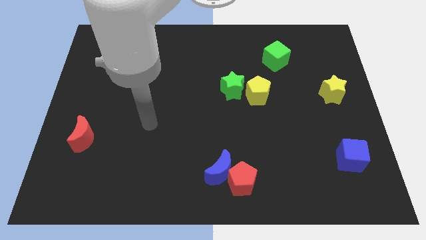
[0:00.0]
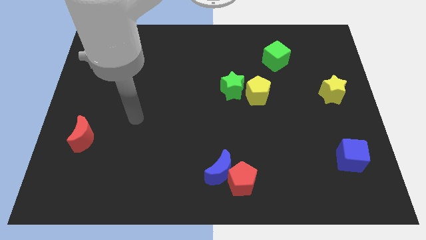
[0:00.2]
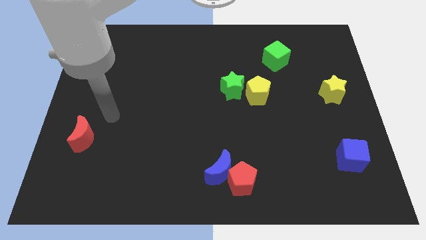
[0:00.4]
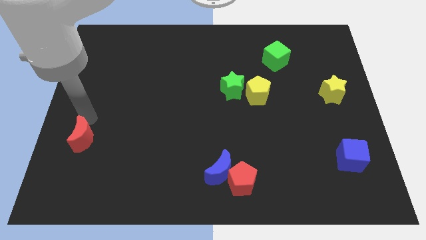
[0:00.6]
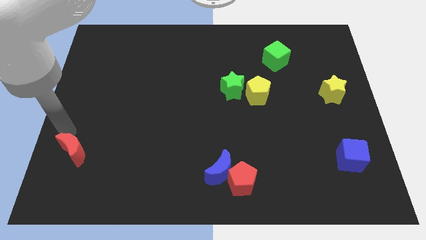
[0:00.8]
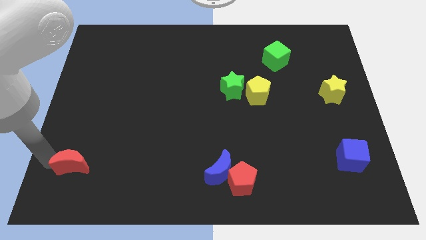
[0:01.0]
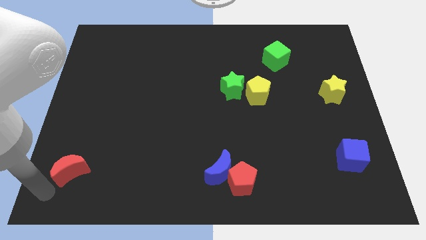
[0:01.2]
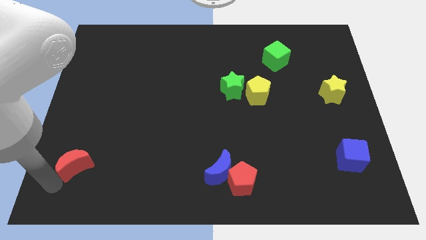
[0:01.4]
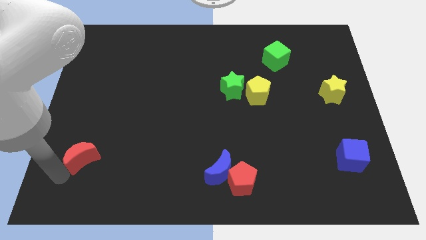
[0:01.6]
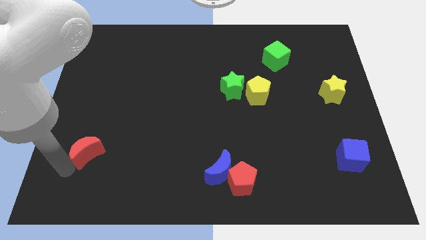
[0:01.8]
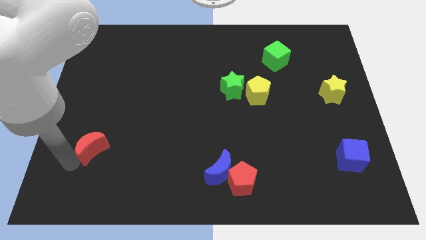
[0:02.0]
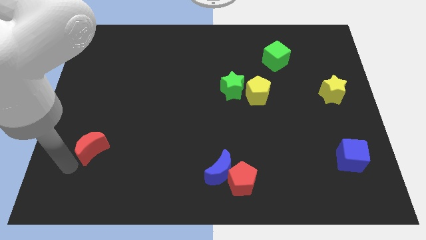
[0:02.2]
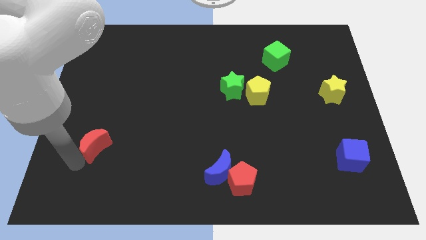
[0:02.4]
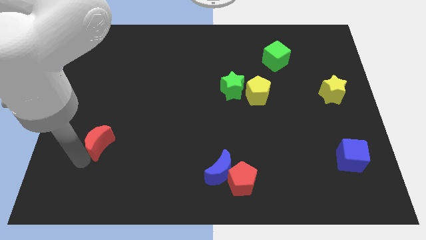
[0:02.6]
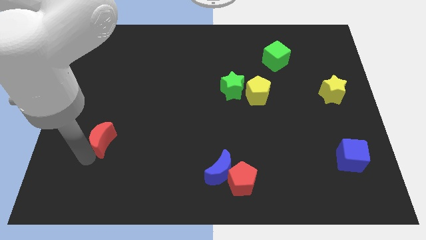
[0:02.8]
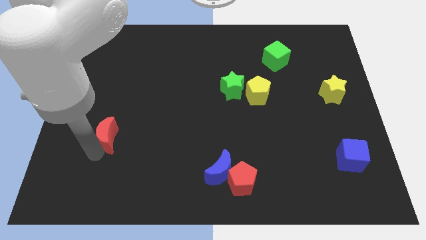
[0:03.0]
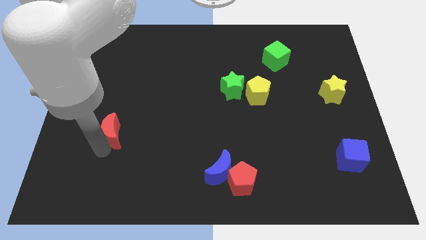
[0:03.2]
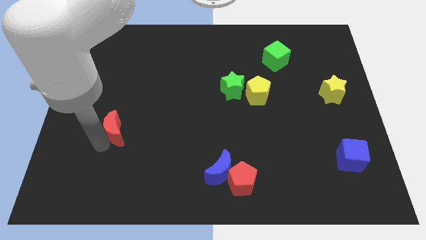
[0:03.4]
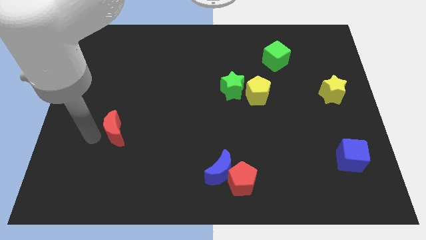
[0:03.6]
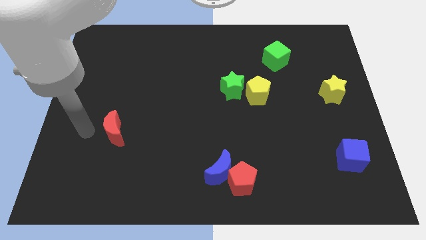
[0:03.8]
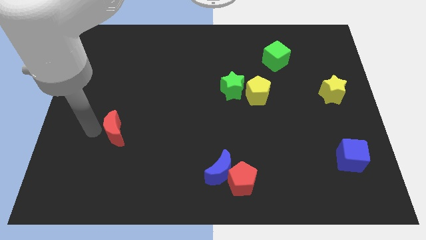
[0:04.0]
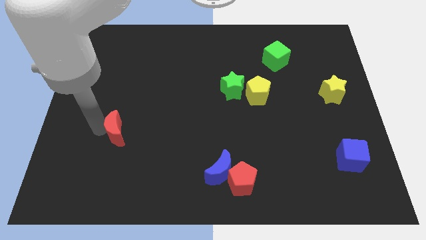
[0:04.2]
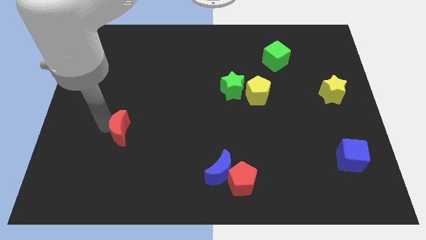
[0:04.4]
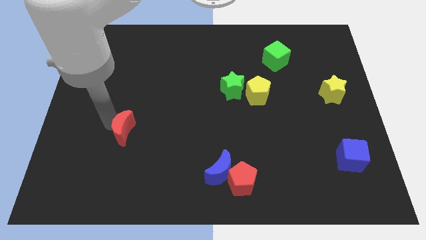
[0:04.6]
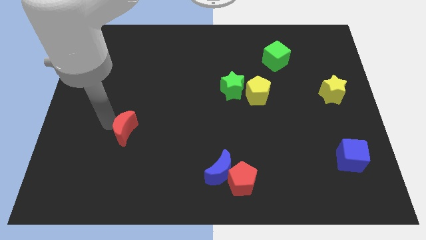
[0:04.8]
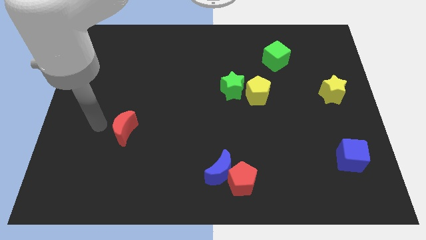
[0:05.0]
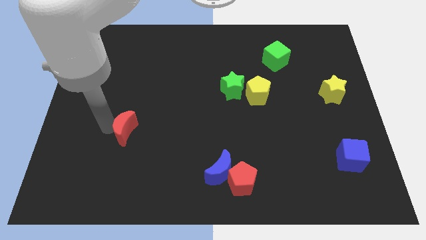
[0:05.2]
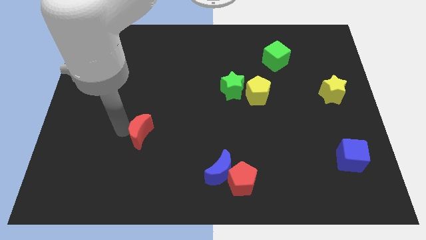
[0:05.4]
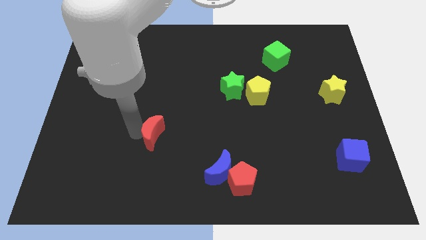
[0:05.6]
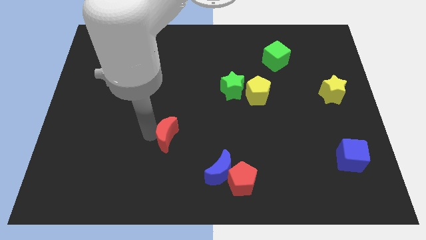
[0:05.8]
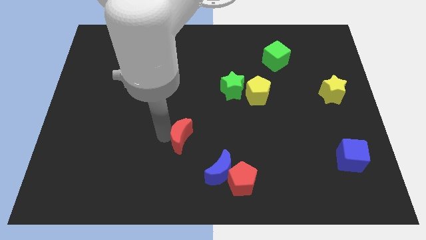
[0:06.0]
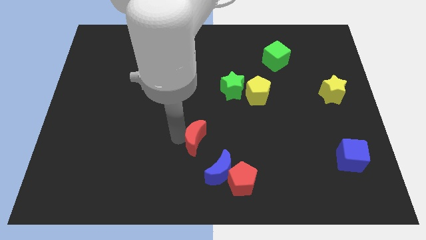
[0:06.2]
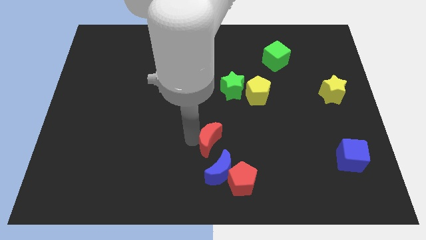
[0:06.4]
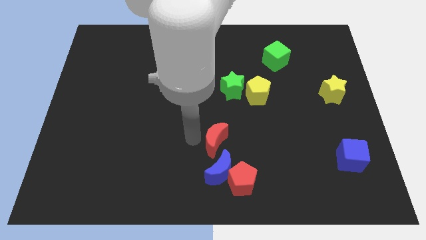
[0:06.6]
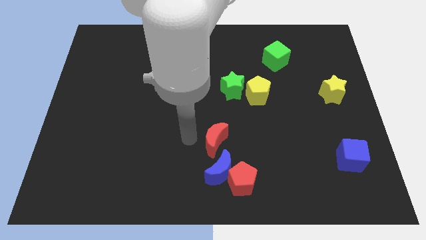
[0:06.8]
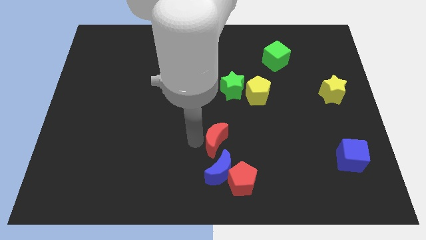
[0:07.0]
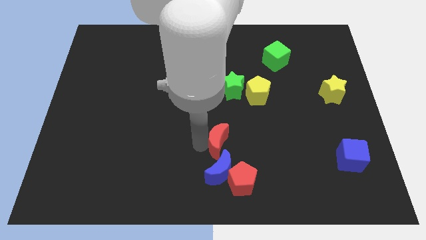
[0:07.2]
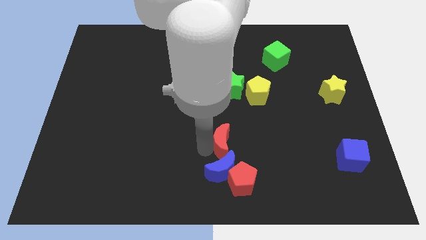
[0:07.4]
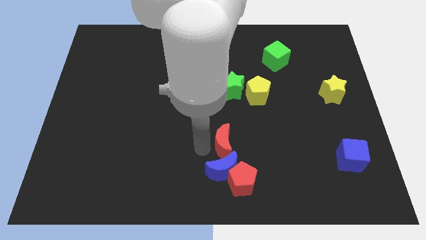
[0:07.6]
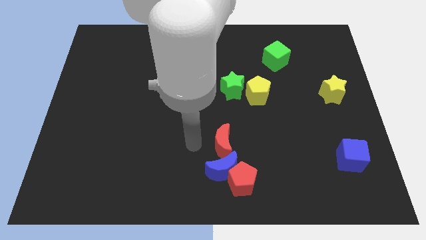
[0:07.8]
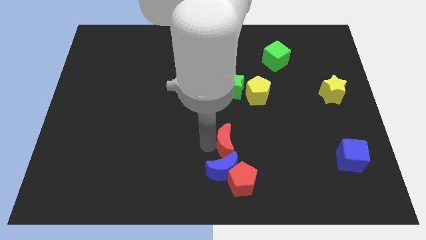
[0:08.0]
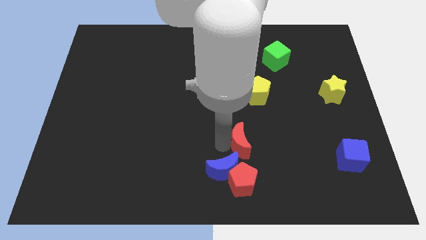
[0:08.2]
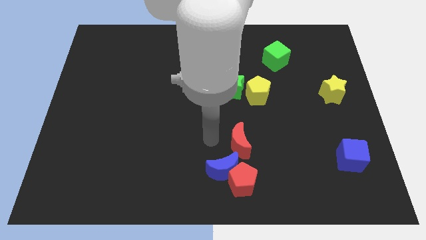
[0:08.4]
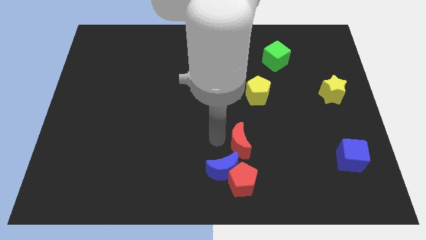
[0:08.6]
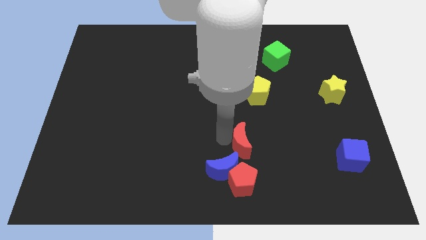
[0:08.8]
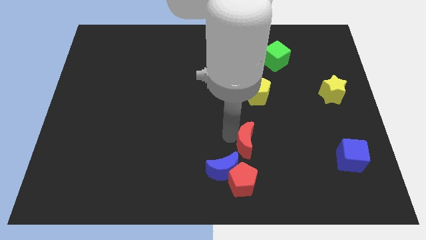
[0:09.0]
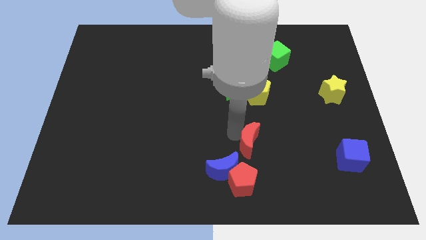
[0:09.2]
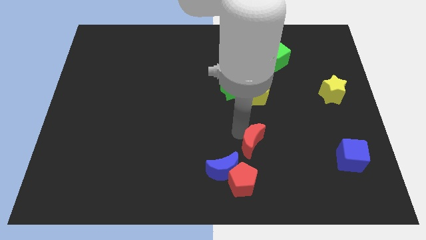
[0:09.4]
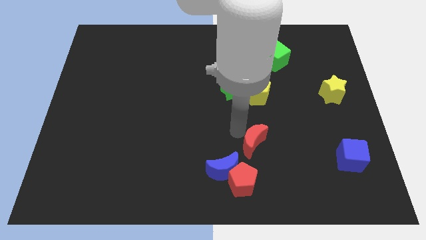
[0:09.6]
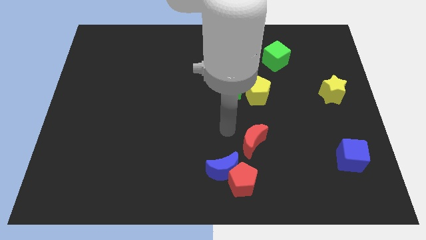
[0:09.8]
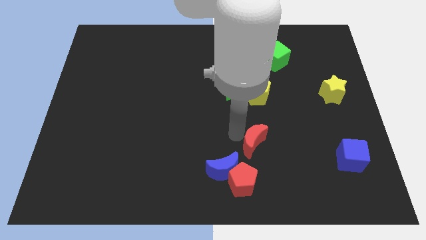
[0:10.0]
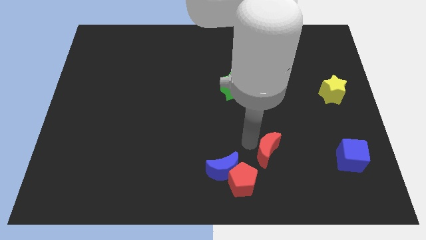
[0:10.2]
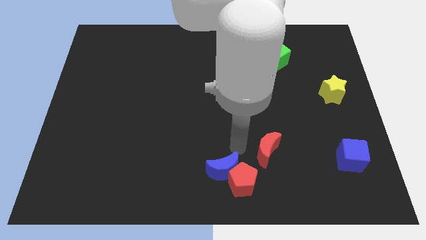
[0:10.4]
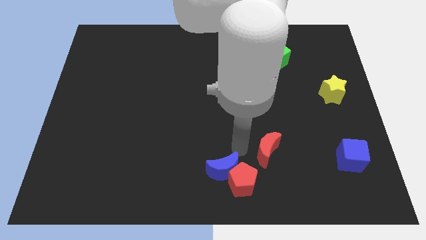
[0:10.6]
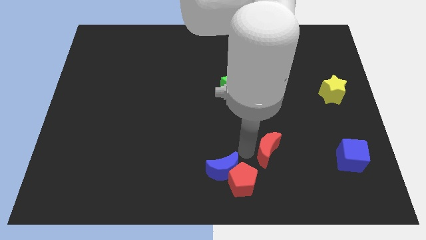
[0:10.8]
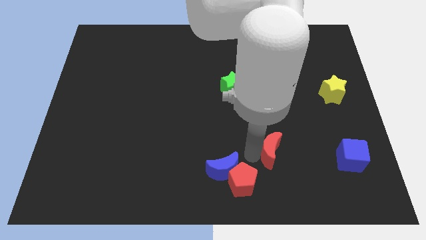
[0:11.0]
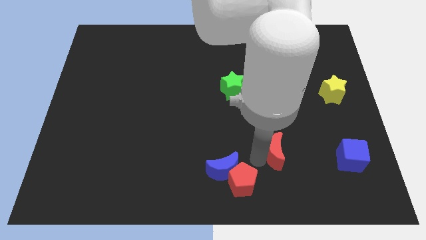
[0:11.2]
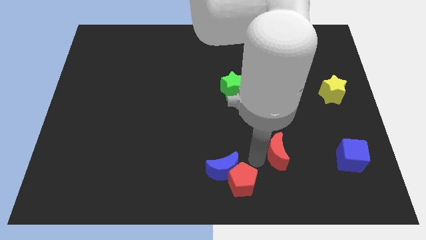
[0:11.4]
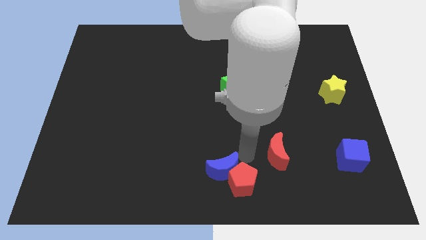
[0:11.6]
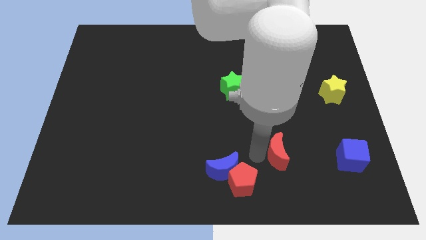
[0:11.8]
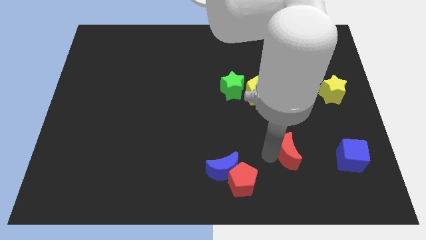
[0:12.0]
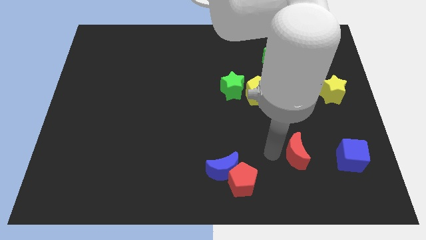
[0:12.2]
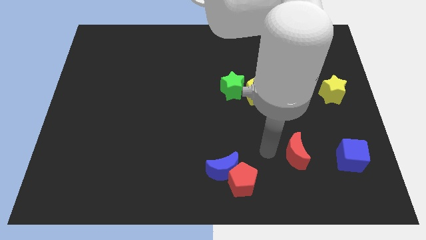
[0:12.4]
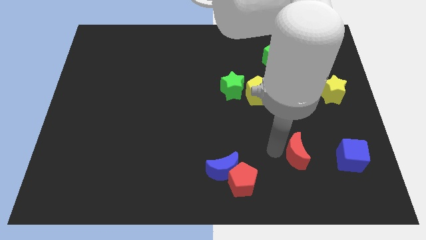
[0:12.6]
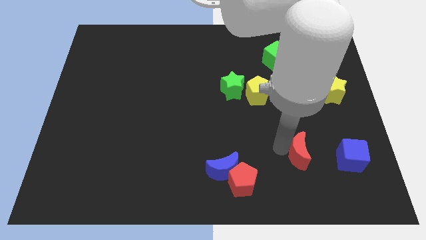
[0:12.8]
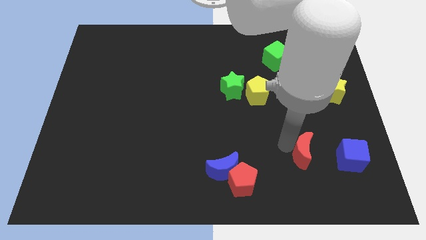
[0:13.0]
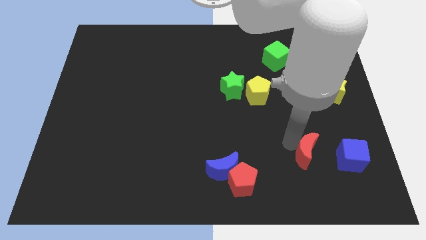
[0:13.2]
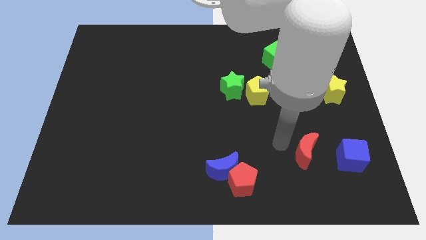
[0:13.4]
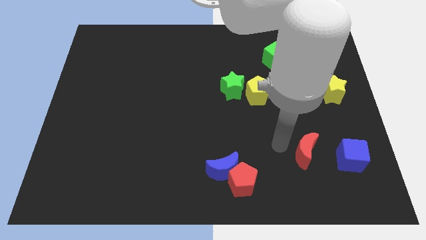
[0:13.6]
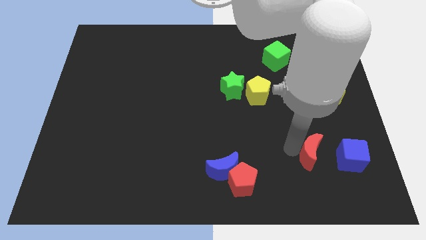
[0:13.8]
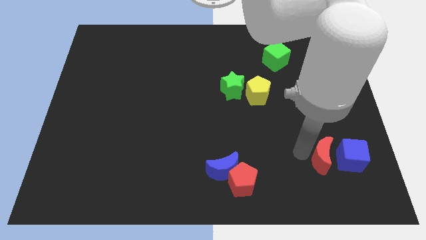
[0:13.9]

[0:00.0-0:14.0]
push the red moon next to the blue cube

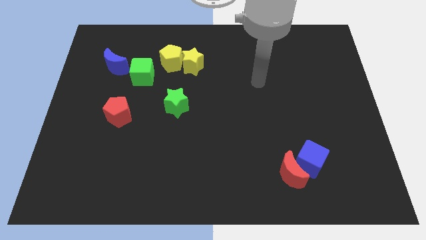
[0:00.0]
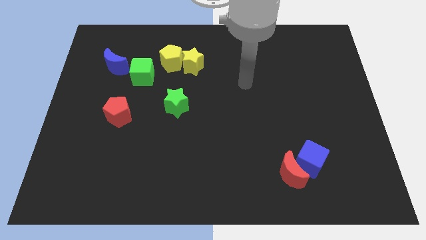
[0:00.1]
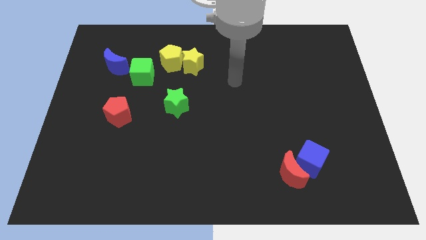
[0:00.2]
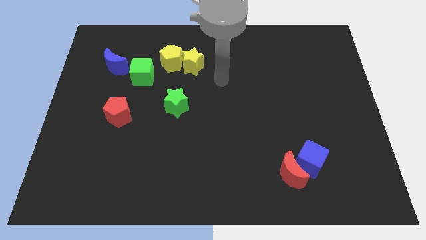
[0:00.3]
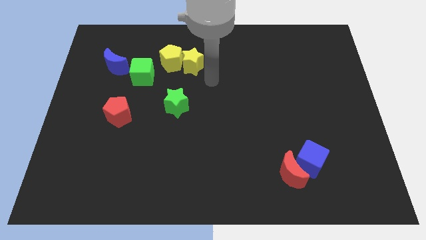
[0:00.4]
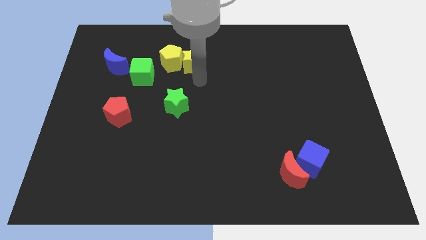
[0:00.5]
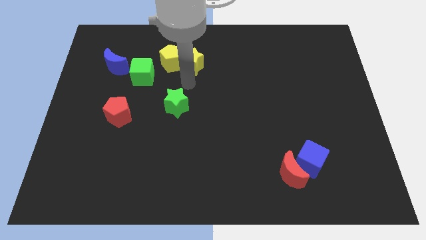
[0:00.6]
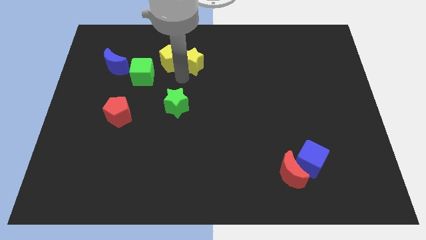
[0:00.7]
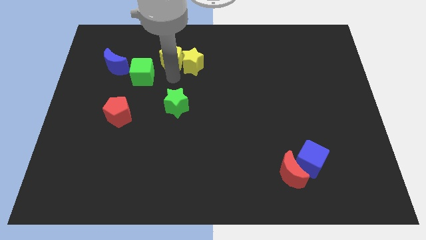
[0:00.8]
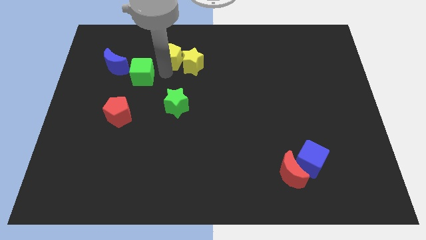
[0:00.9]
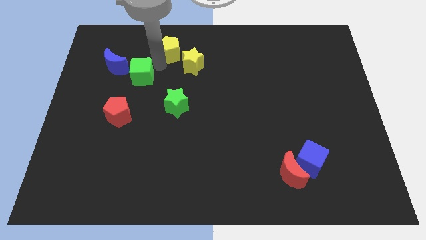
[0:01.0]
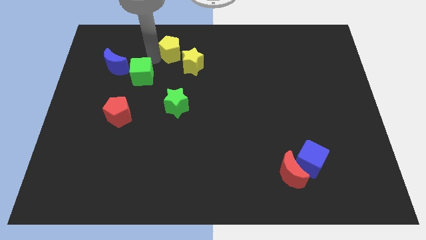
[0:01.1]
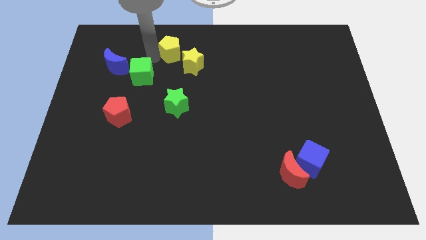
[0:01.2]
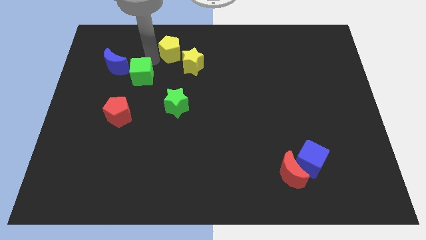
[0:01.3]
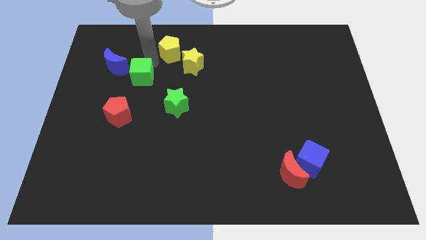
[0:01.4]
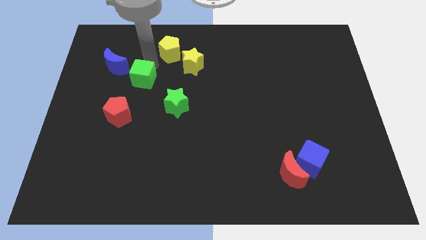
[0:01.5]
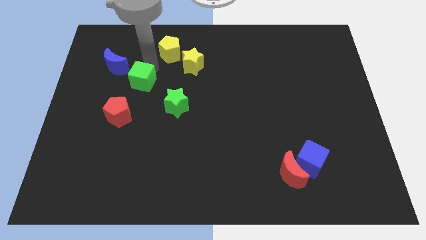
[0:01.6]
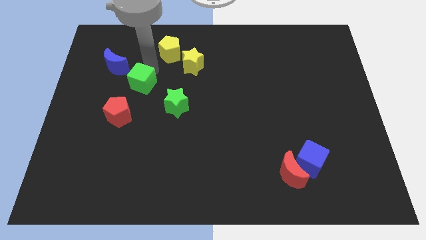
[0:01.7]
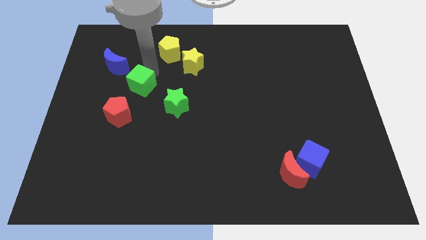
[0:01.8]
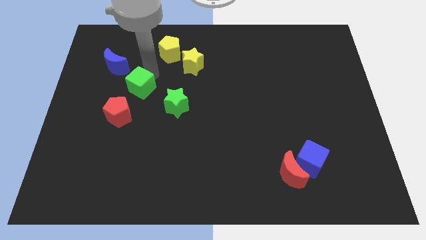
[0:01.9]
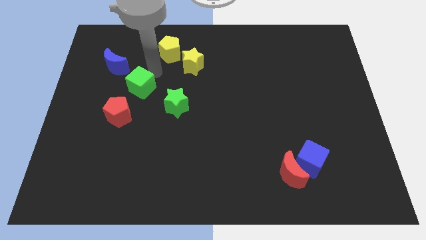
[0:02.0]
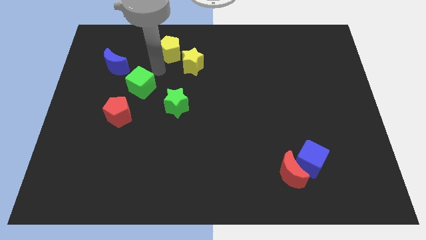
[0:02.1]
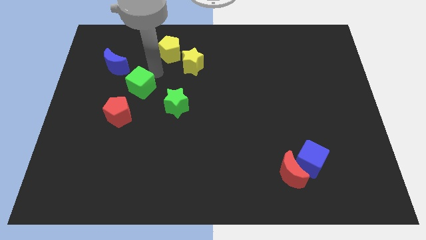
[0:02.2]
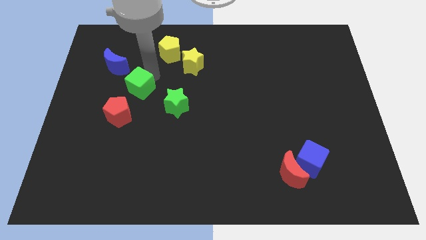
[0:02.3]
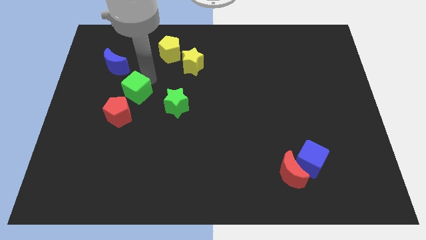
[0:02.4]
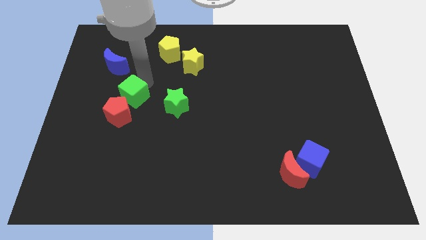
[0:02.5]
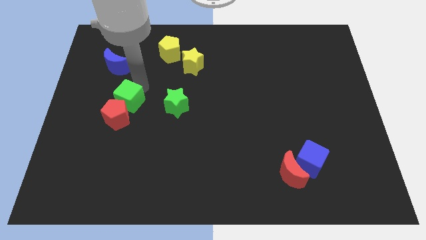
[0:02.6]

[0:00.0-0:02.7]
put the green cube next to the red pentagon
